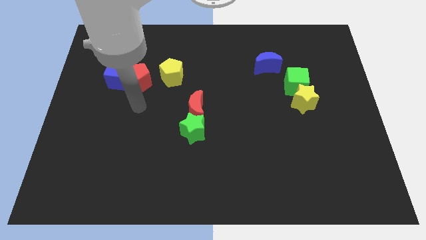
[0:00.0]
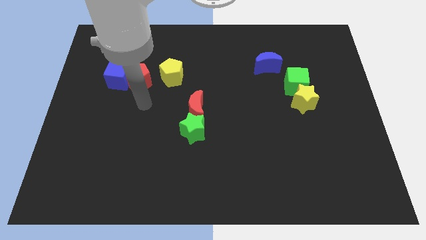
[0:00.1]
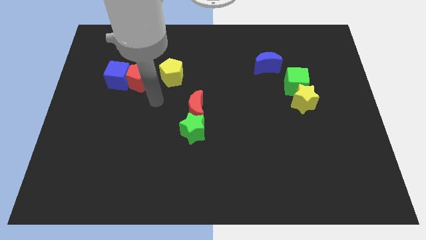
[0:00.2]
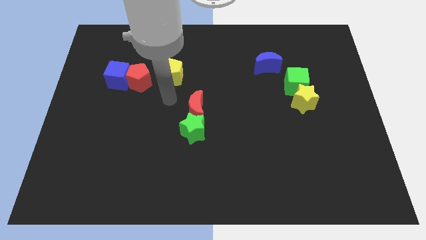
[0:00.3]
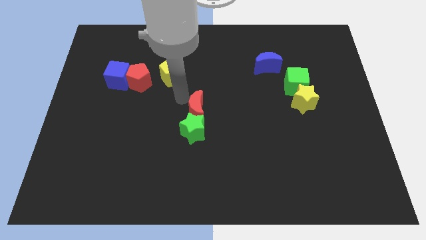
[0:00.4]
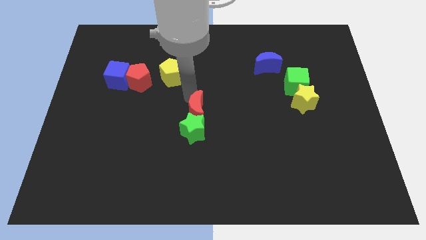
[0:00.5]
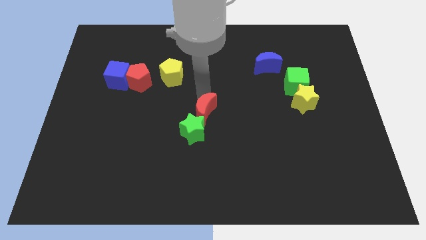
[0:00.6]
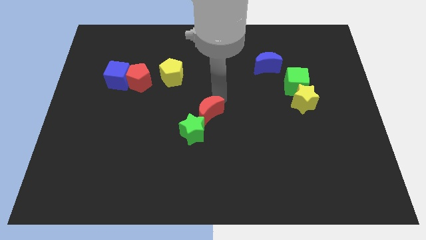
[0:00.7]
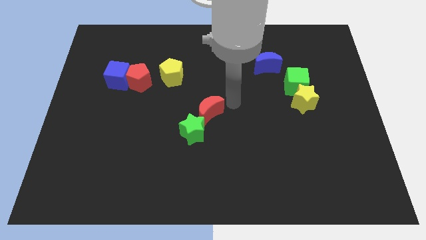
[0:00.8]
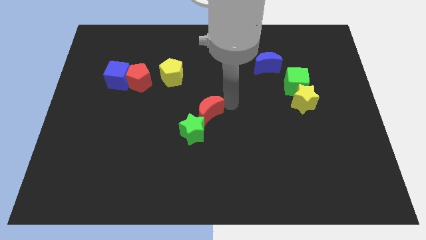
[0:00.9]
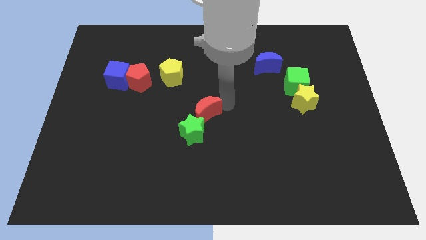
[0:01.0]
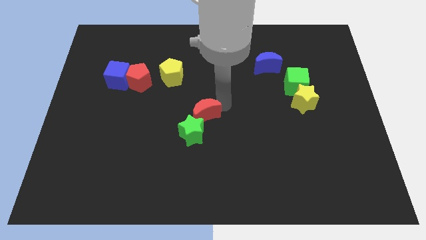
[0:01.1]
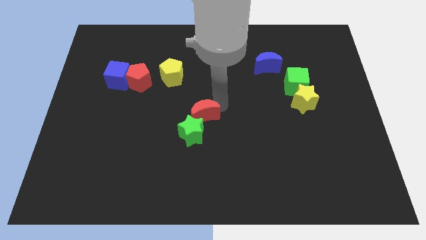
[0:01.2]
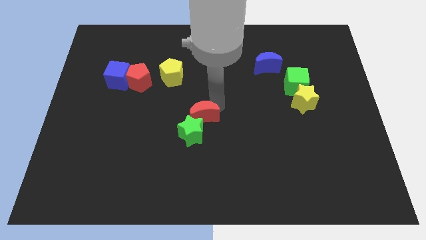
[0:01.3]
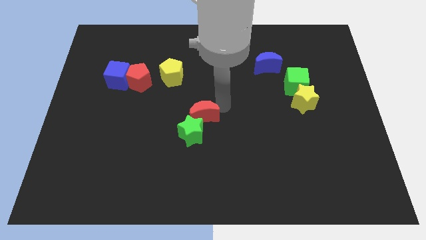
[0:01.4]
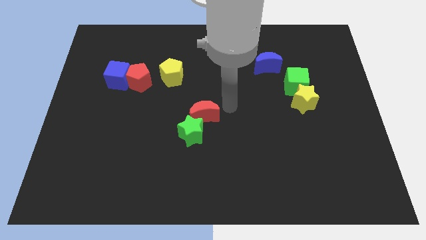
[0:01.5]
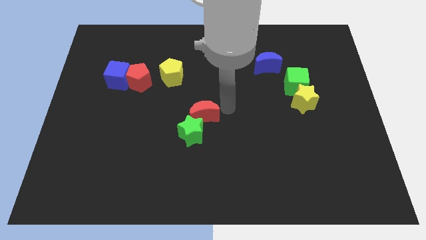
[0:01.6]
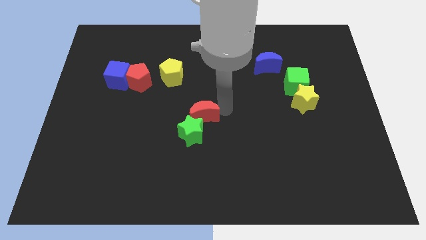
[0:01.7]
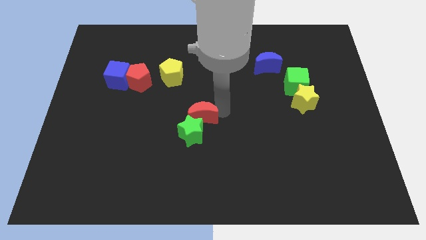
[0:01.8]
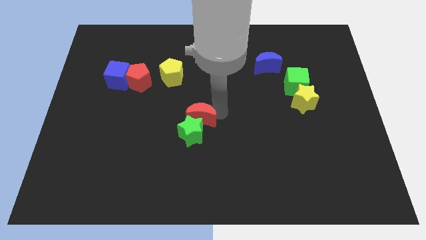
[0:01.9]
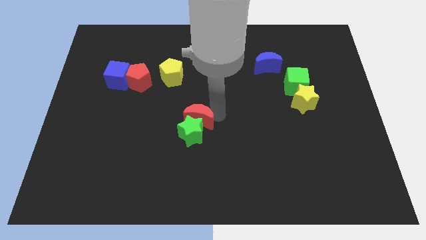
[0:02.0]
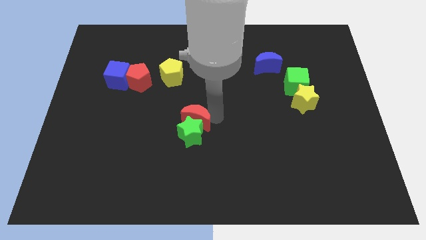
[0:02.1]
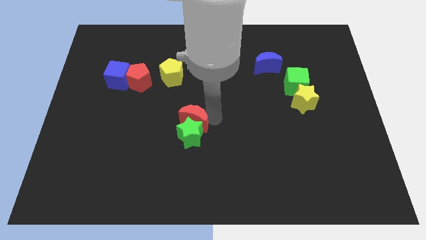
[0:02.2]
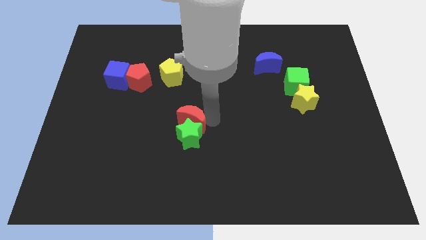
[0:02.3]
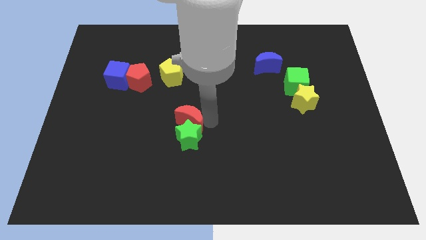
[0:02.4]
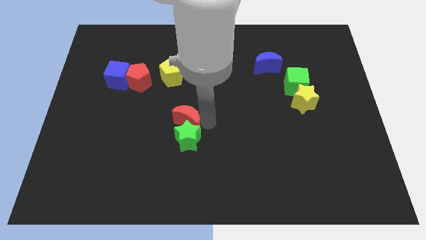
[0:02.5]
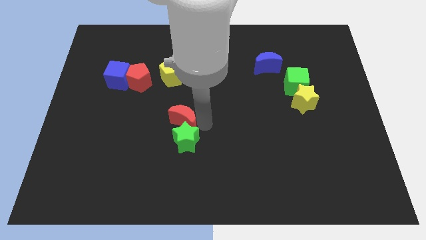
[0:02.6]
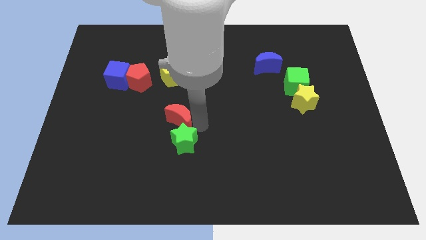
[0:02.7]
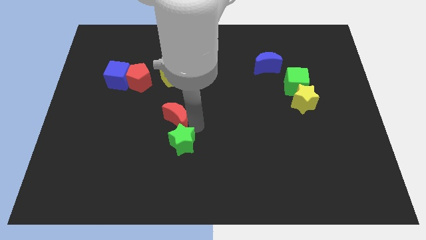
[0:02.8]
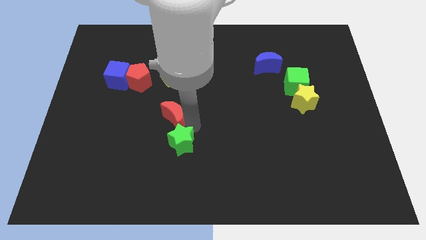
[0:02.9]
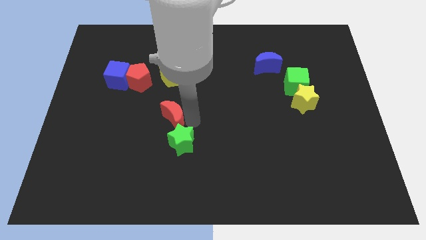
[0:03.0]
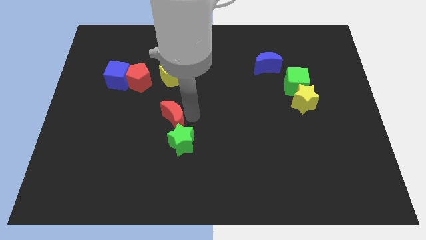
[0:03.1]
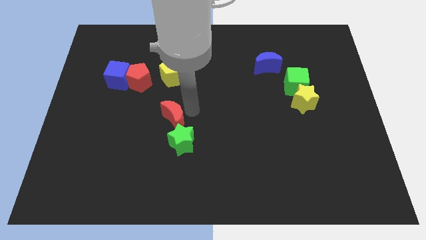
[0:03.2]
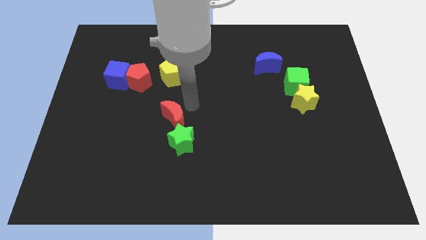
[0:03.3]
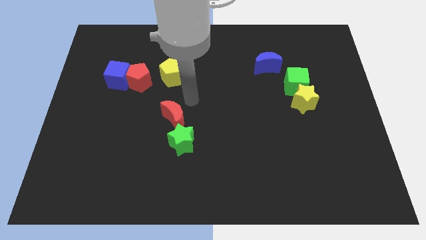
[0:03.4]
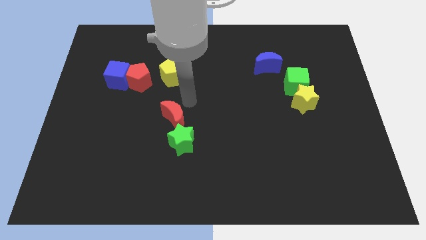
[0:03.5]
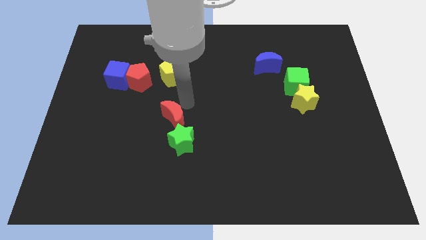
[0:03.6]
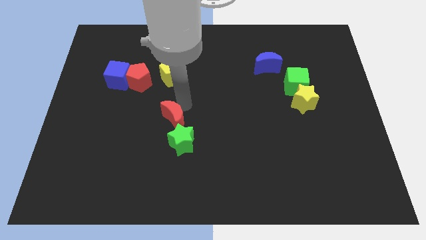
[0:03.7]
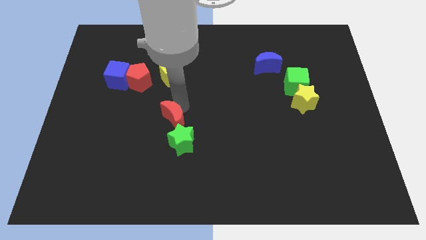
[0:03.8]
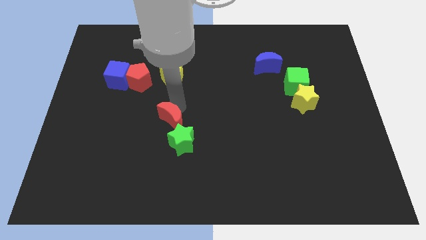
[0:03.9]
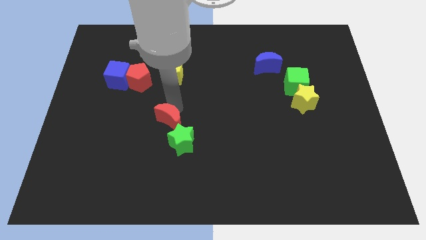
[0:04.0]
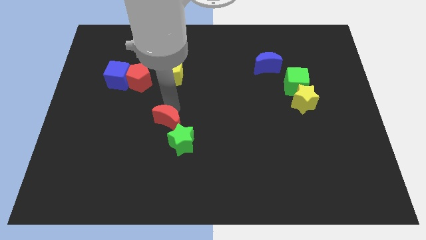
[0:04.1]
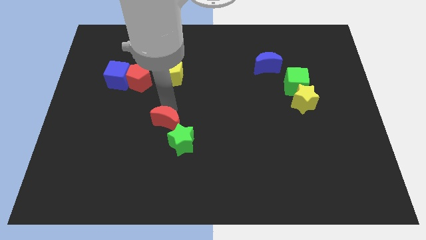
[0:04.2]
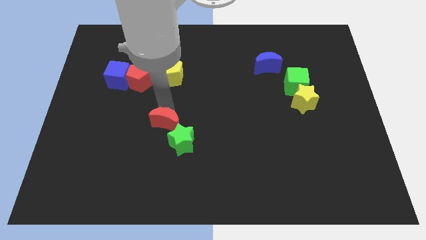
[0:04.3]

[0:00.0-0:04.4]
slightly push the red moon diagonally downwards and to the left

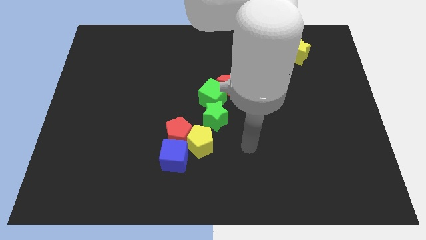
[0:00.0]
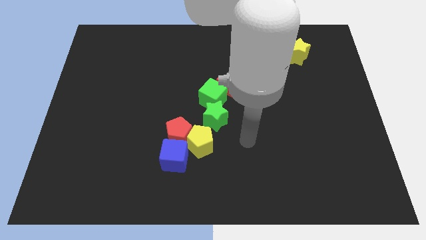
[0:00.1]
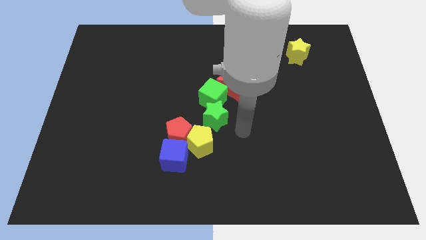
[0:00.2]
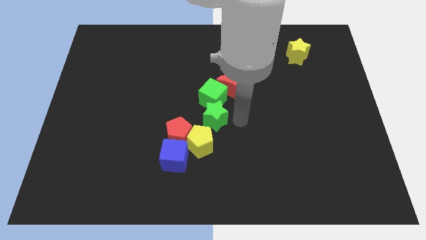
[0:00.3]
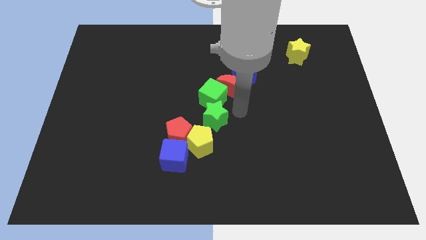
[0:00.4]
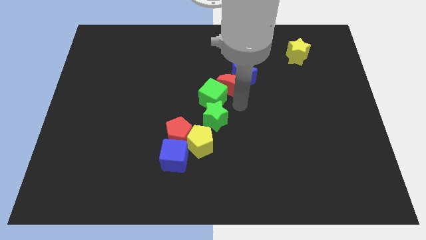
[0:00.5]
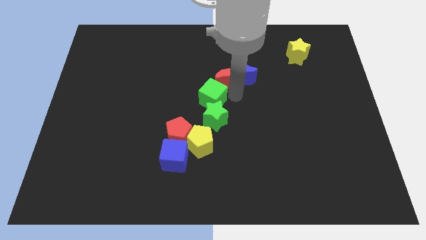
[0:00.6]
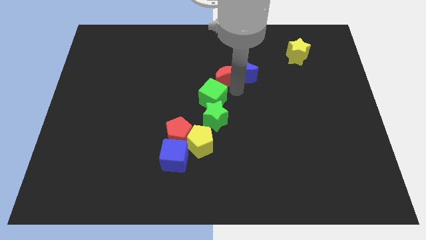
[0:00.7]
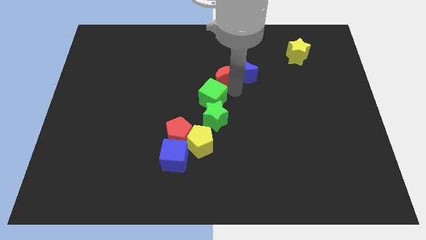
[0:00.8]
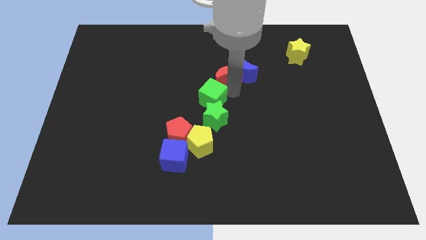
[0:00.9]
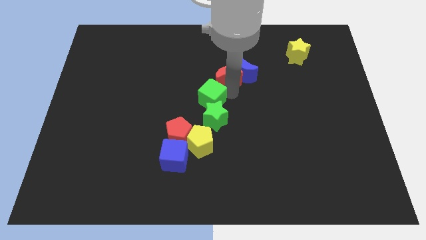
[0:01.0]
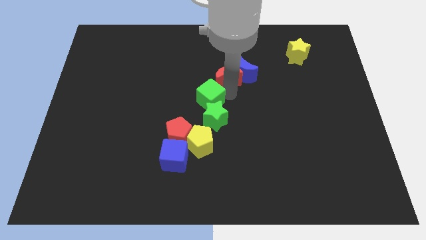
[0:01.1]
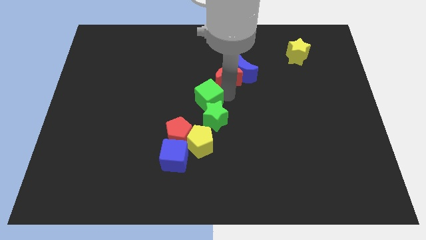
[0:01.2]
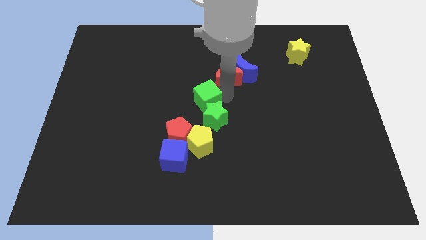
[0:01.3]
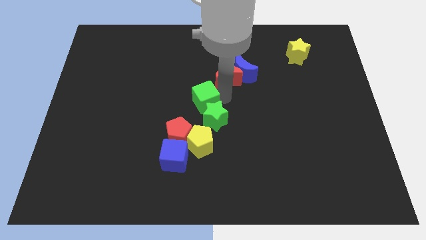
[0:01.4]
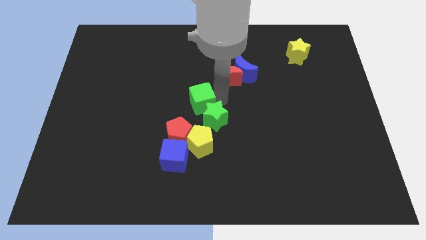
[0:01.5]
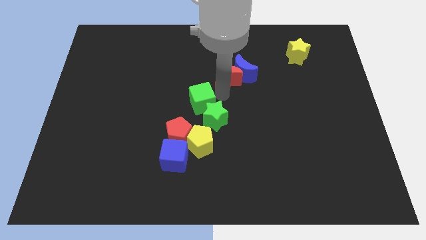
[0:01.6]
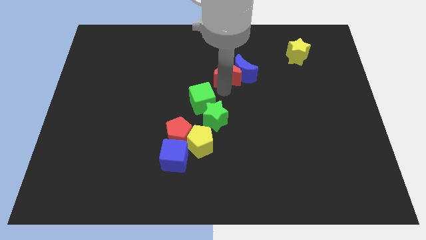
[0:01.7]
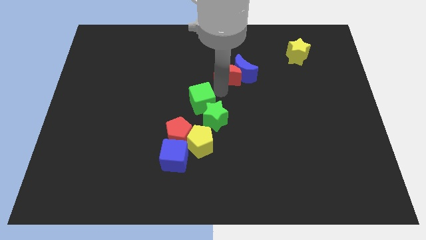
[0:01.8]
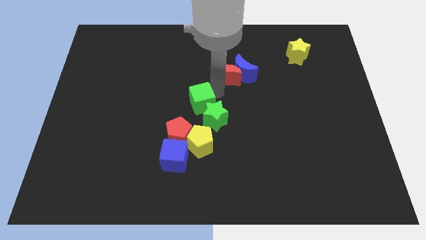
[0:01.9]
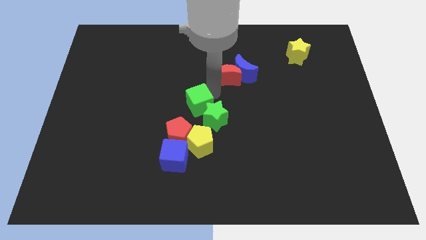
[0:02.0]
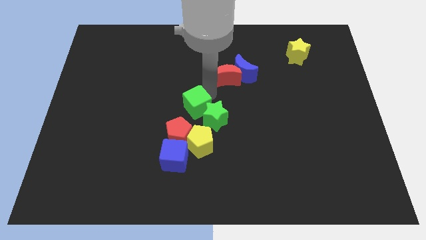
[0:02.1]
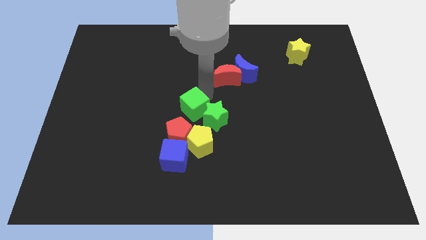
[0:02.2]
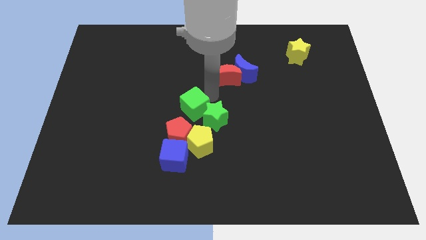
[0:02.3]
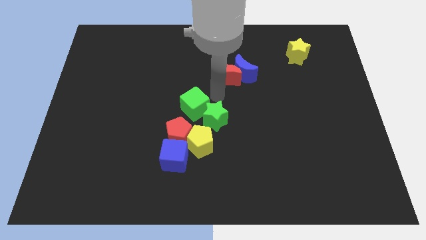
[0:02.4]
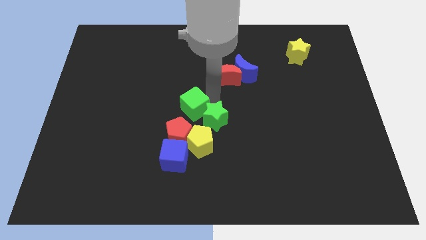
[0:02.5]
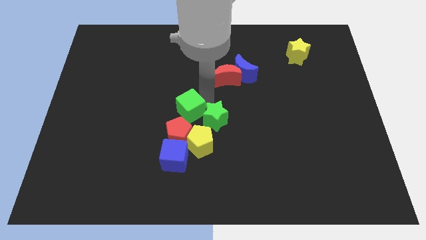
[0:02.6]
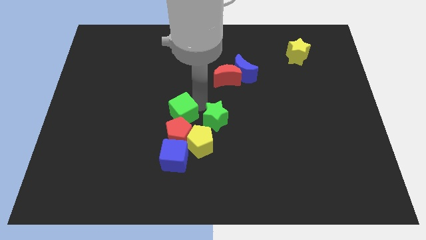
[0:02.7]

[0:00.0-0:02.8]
slightly slide the green cube down and then to the left

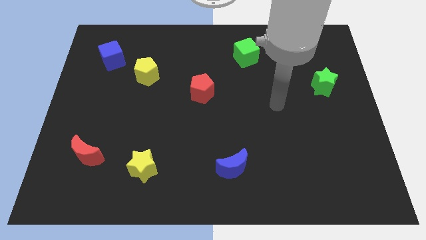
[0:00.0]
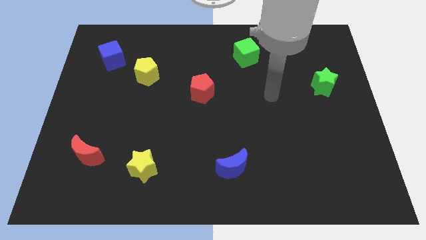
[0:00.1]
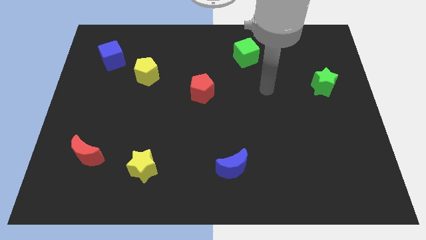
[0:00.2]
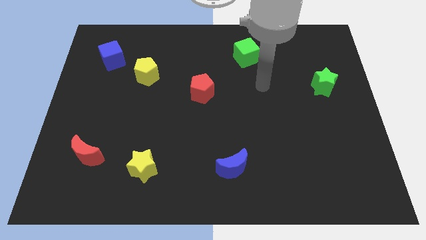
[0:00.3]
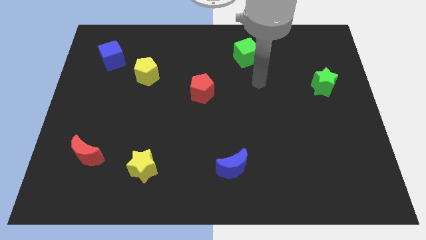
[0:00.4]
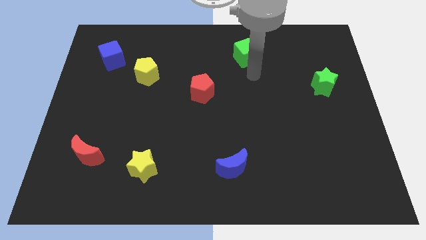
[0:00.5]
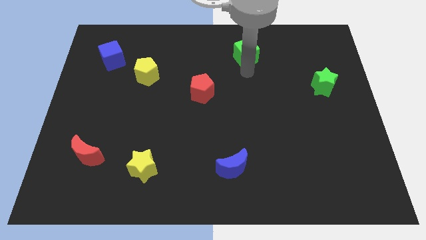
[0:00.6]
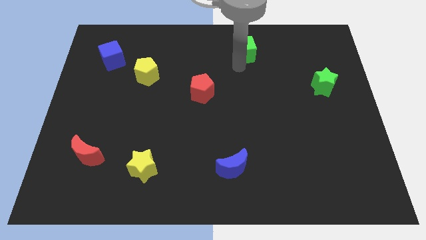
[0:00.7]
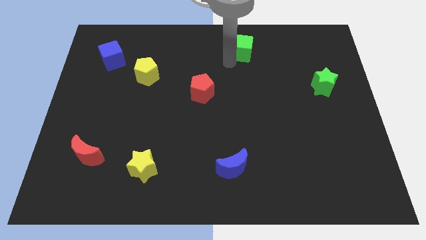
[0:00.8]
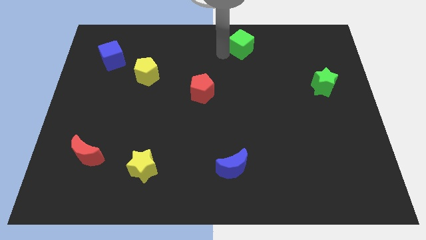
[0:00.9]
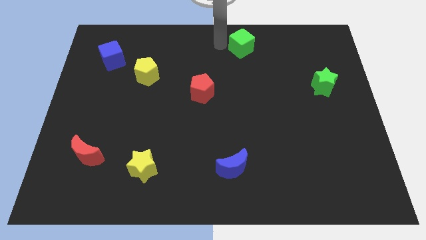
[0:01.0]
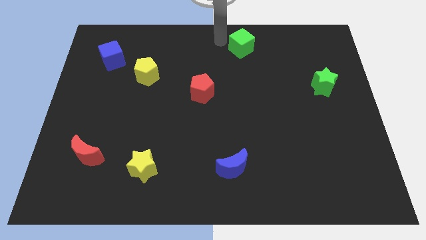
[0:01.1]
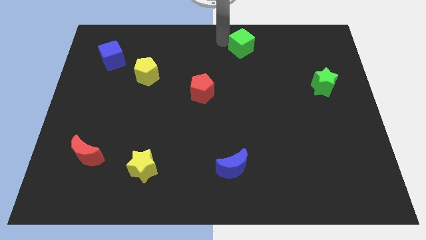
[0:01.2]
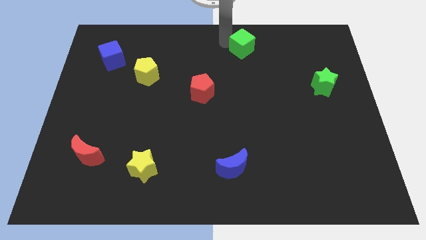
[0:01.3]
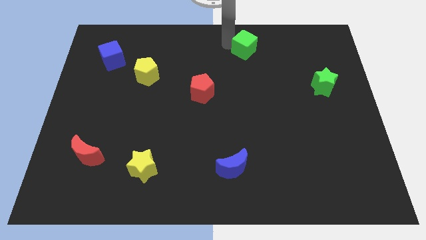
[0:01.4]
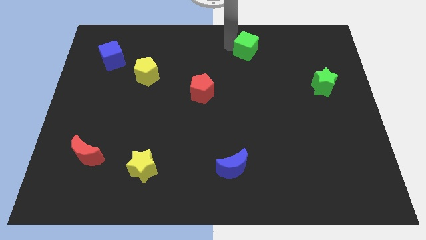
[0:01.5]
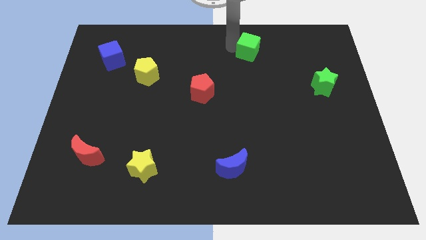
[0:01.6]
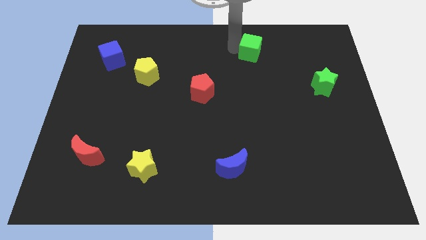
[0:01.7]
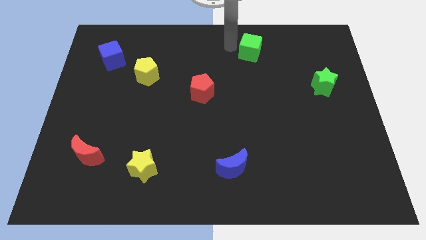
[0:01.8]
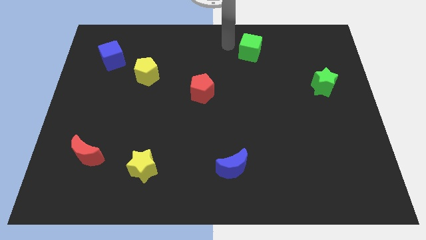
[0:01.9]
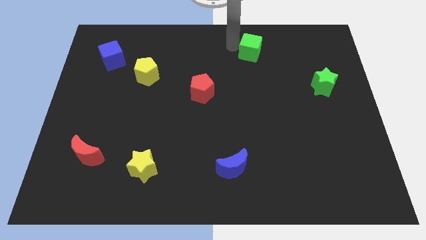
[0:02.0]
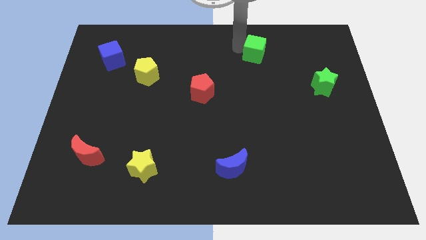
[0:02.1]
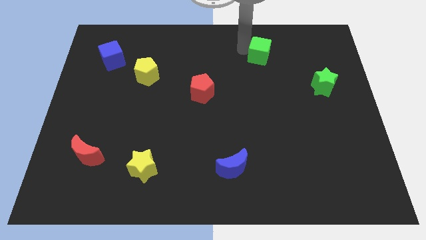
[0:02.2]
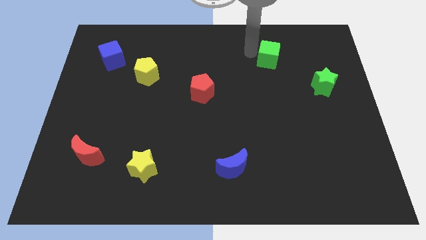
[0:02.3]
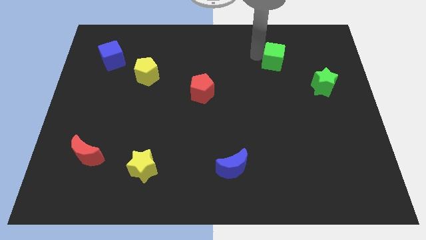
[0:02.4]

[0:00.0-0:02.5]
slightly slide the green cube right
